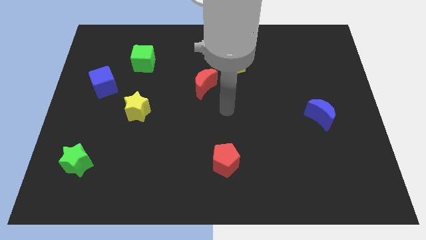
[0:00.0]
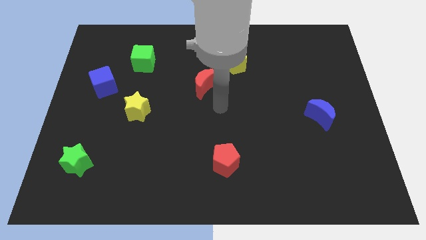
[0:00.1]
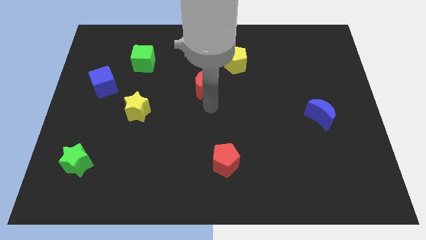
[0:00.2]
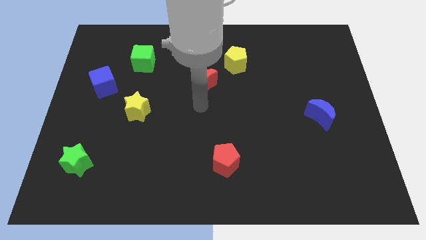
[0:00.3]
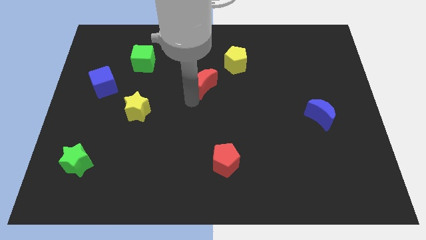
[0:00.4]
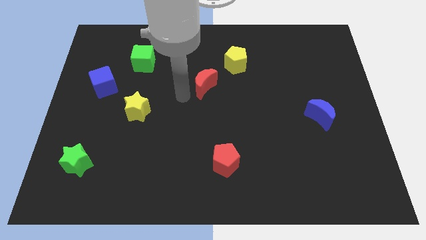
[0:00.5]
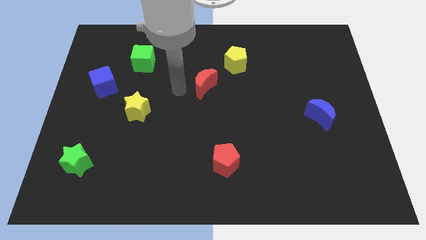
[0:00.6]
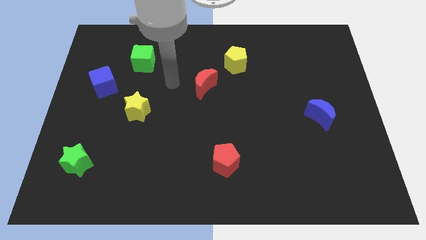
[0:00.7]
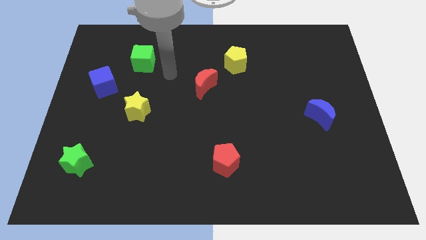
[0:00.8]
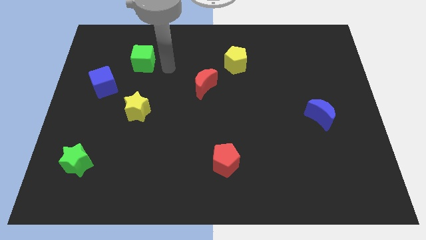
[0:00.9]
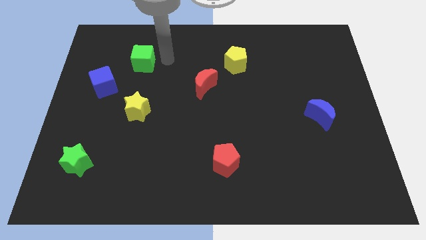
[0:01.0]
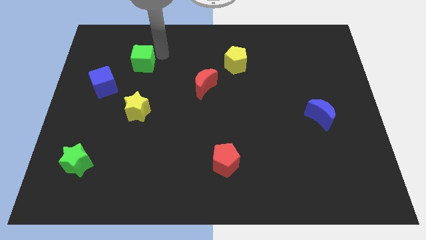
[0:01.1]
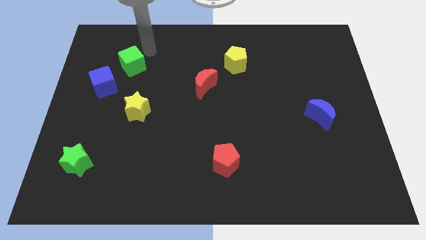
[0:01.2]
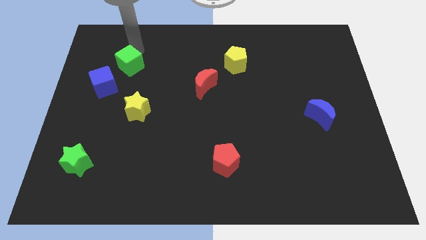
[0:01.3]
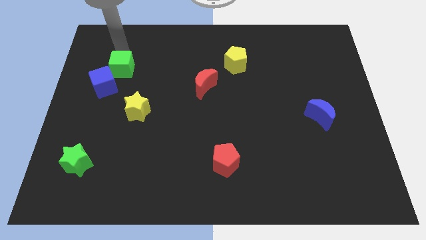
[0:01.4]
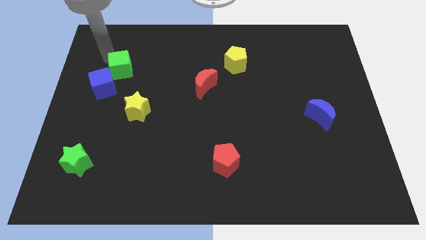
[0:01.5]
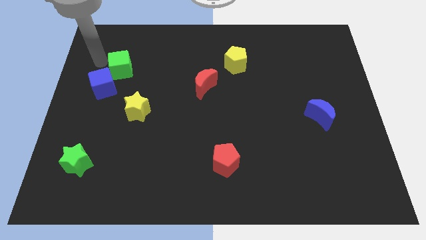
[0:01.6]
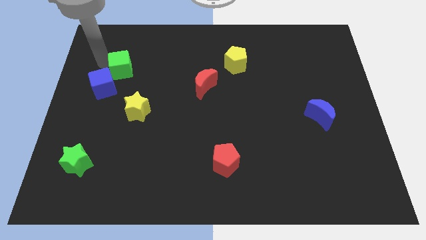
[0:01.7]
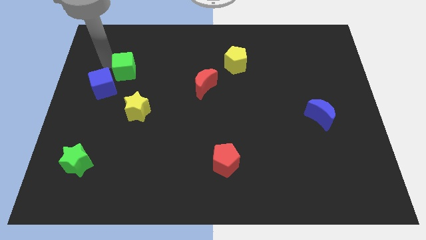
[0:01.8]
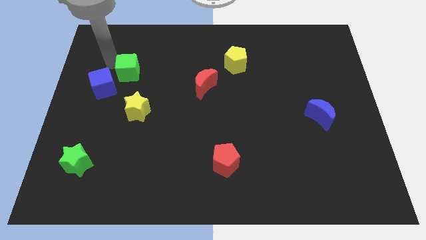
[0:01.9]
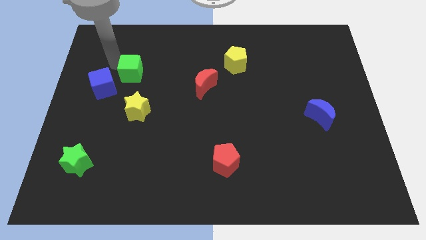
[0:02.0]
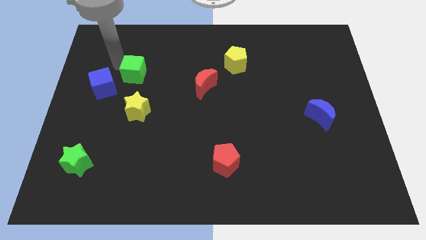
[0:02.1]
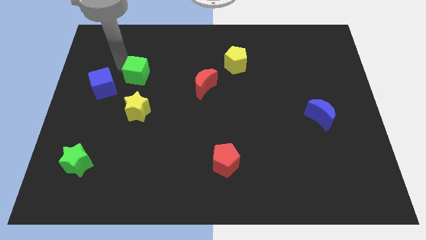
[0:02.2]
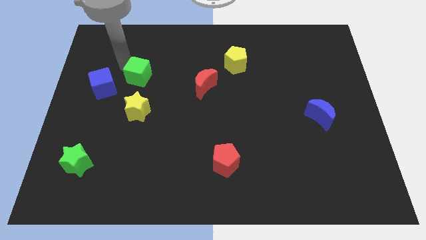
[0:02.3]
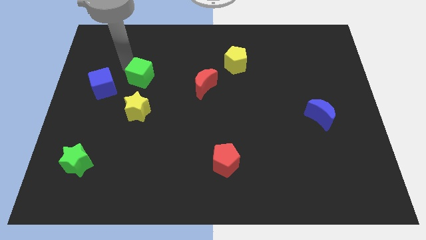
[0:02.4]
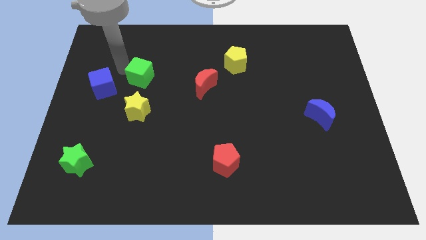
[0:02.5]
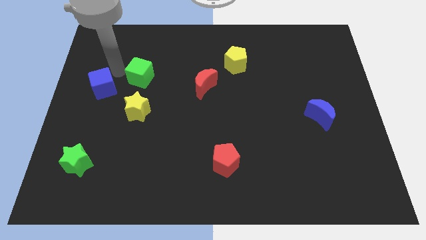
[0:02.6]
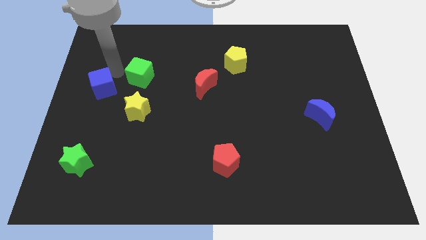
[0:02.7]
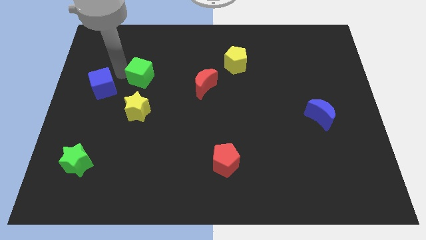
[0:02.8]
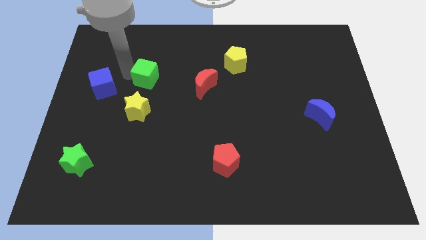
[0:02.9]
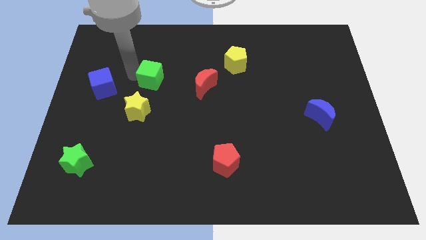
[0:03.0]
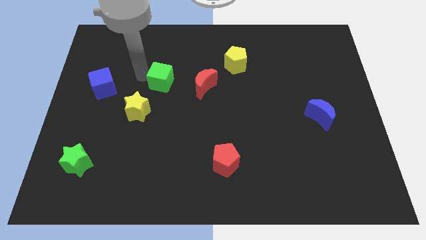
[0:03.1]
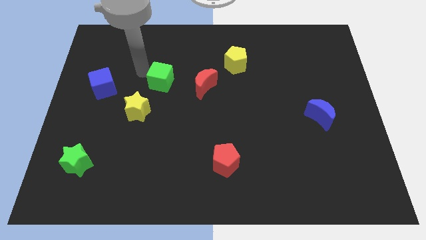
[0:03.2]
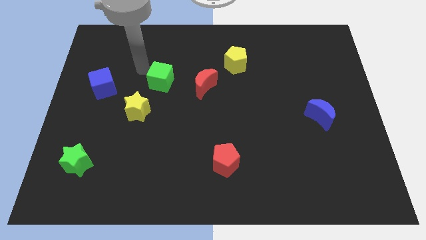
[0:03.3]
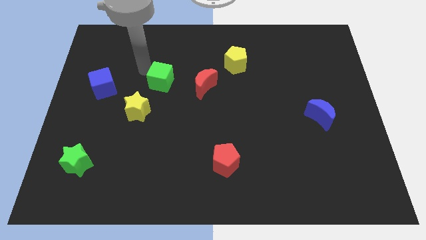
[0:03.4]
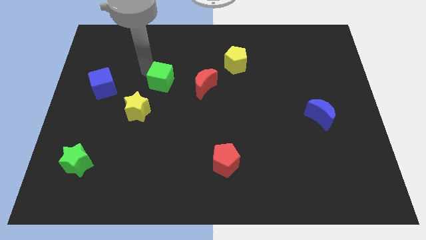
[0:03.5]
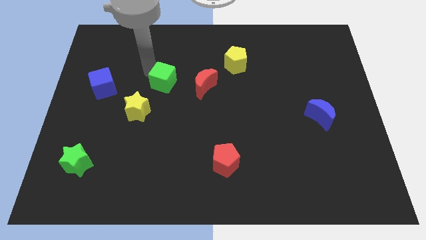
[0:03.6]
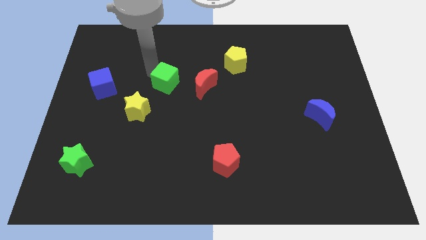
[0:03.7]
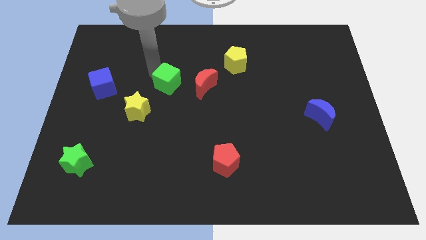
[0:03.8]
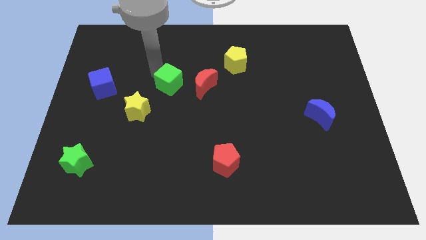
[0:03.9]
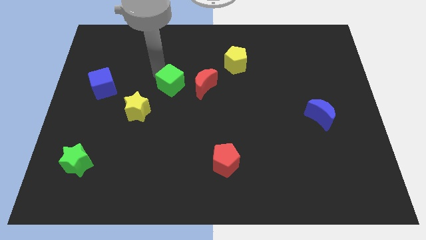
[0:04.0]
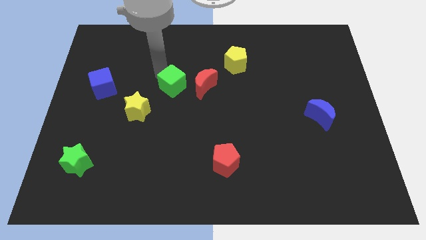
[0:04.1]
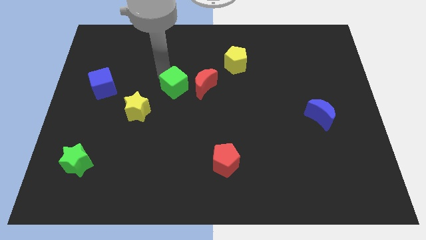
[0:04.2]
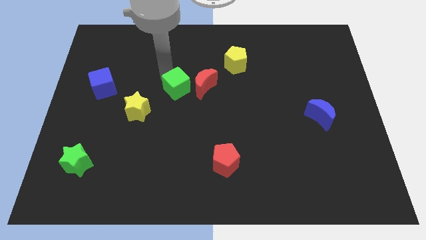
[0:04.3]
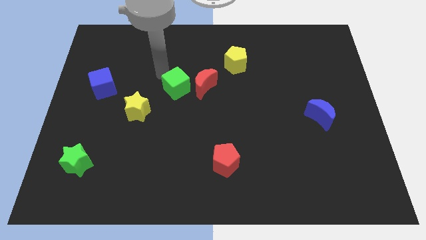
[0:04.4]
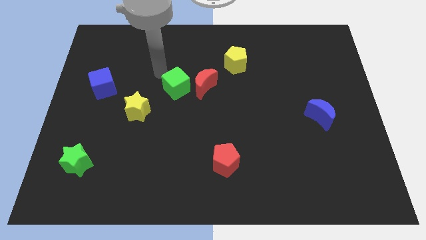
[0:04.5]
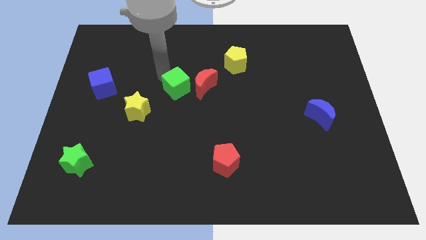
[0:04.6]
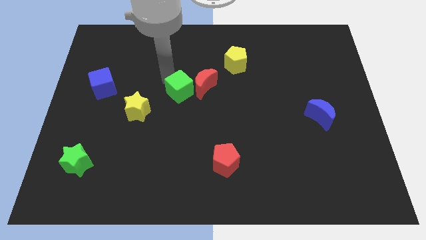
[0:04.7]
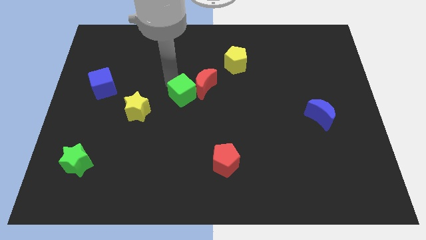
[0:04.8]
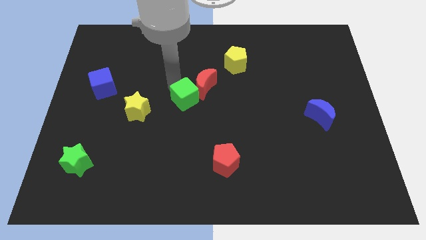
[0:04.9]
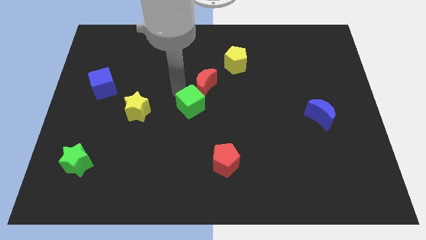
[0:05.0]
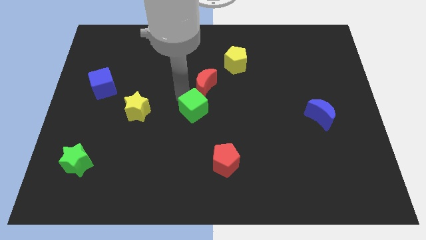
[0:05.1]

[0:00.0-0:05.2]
move the green cube diagonally down and right

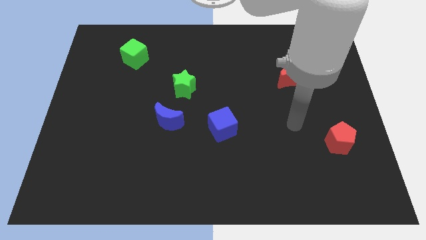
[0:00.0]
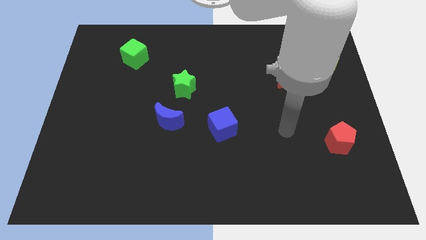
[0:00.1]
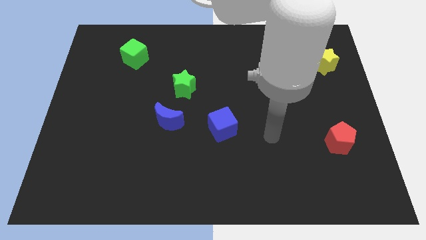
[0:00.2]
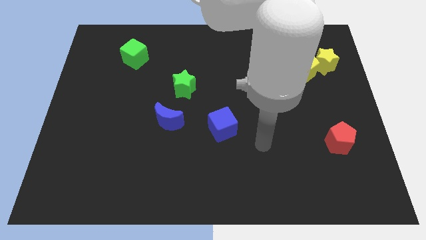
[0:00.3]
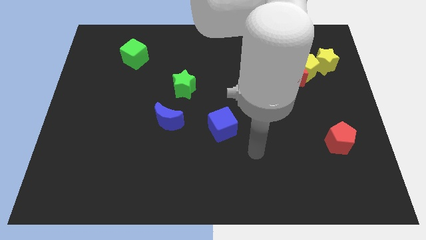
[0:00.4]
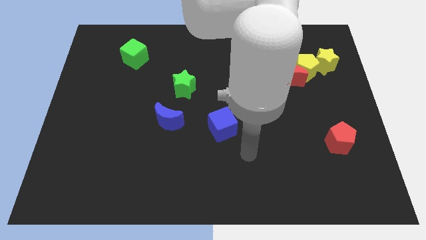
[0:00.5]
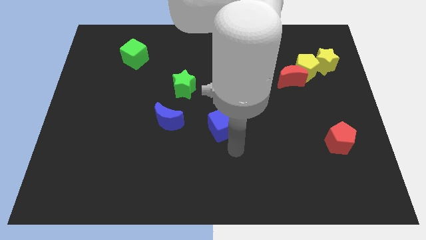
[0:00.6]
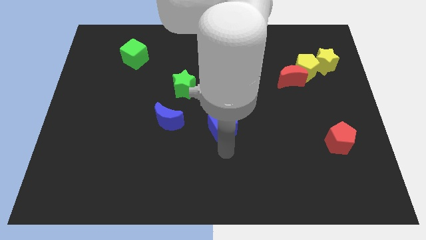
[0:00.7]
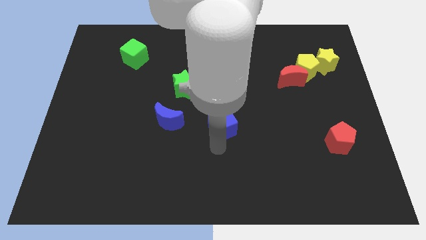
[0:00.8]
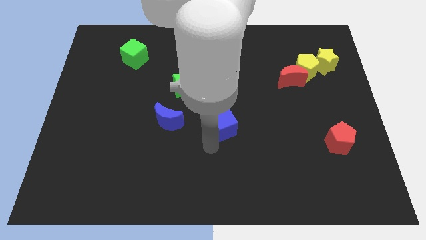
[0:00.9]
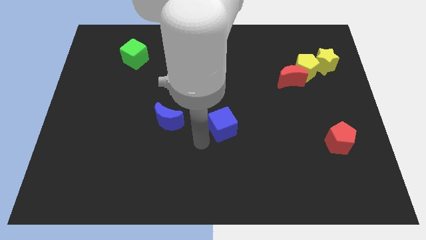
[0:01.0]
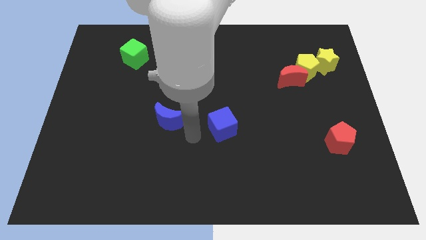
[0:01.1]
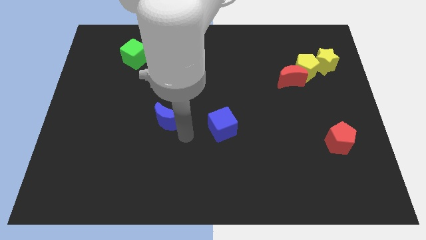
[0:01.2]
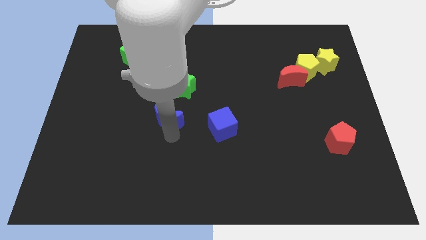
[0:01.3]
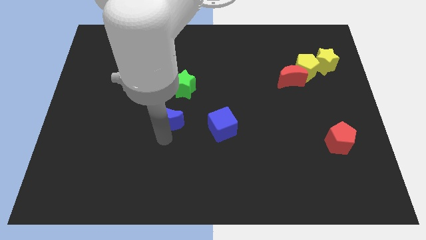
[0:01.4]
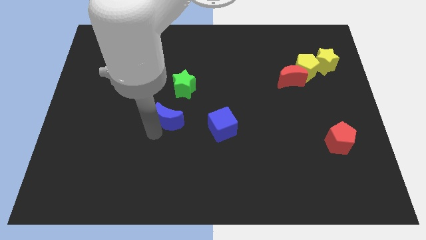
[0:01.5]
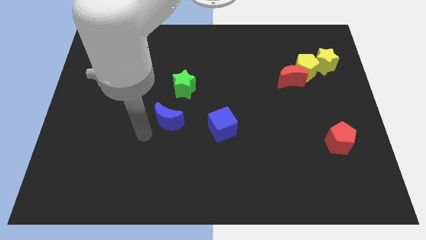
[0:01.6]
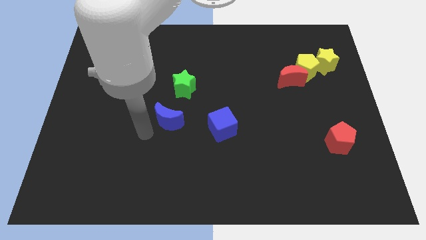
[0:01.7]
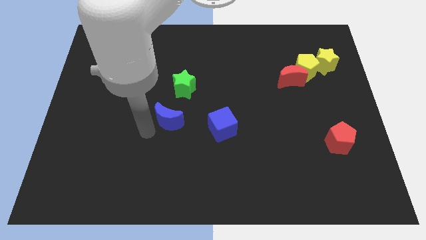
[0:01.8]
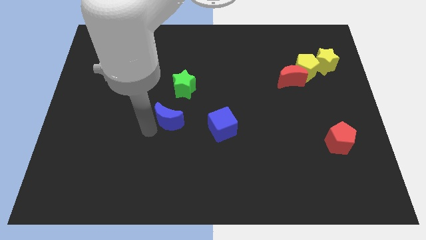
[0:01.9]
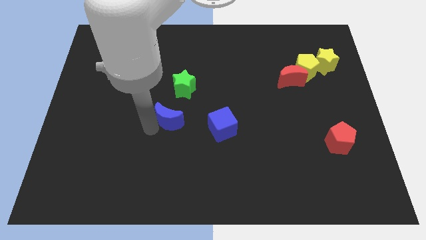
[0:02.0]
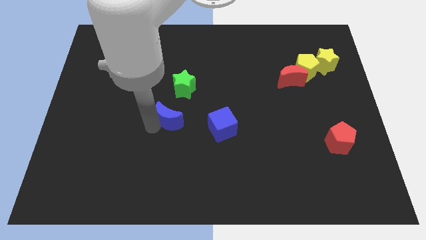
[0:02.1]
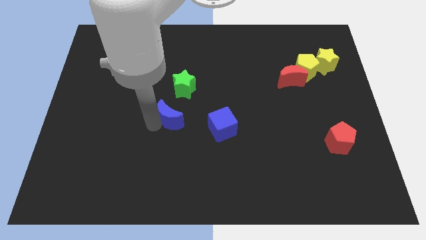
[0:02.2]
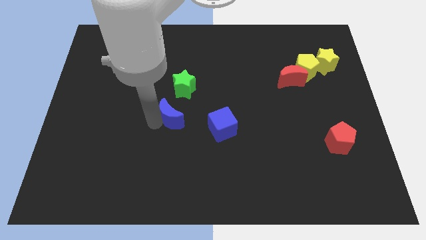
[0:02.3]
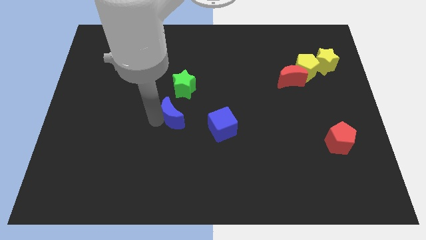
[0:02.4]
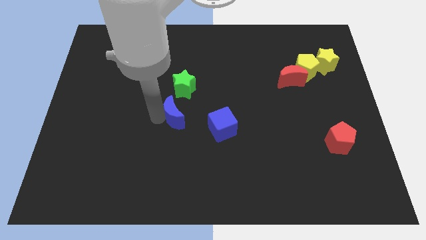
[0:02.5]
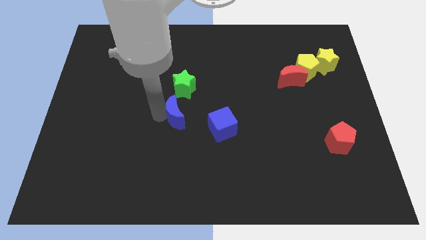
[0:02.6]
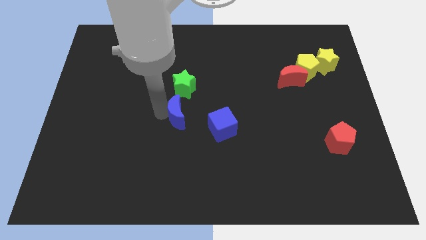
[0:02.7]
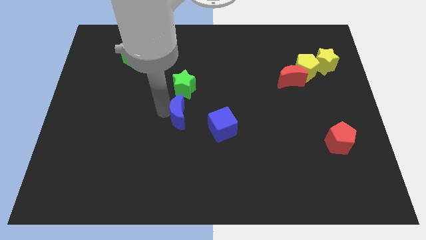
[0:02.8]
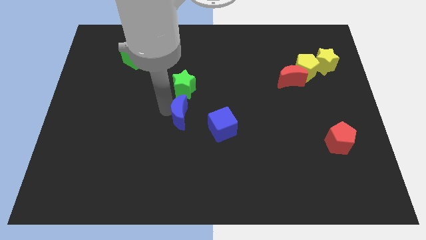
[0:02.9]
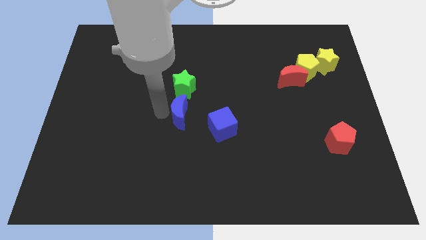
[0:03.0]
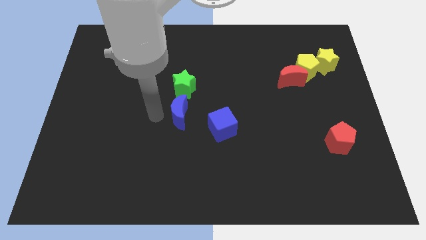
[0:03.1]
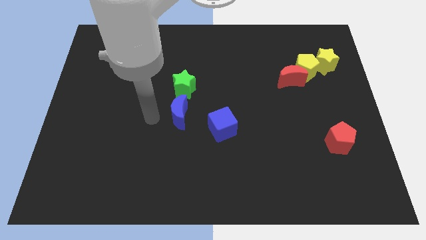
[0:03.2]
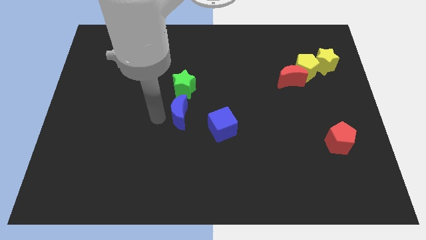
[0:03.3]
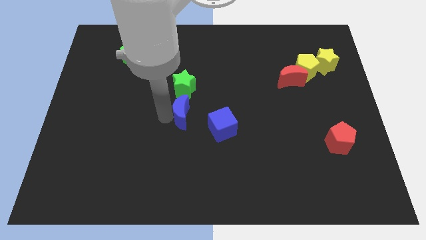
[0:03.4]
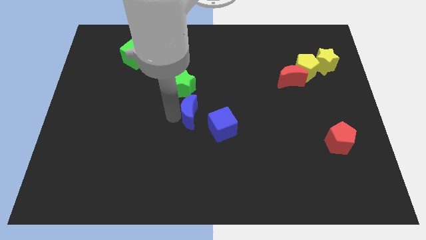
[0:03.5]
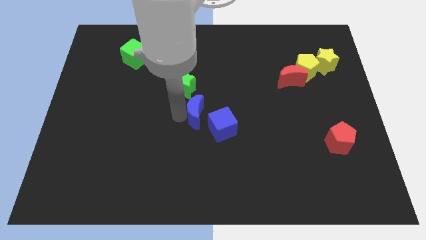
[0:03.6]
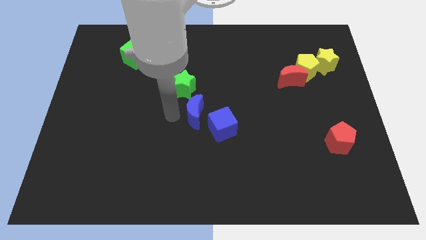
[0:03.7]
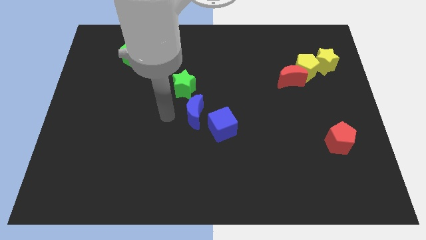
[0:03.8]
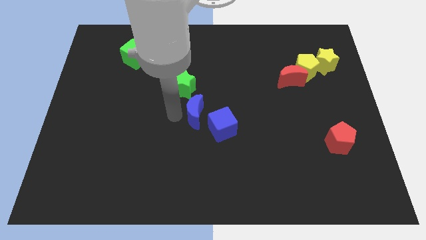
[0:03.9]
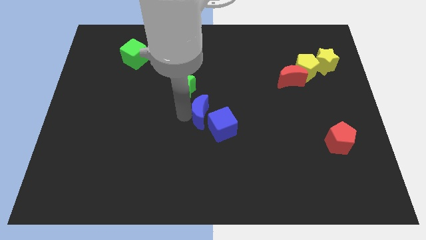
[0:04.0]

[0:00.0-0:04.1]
slightly move the blue moon right
